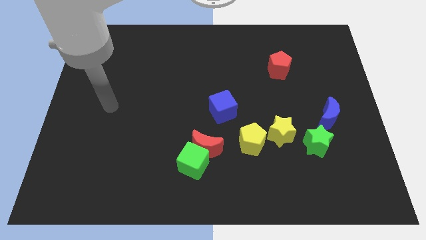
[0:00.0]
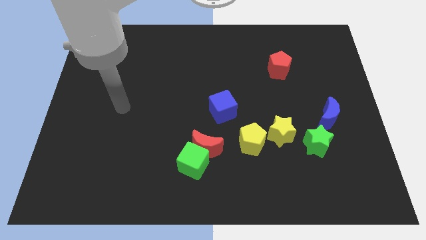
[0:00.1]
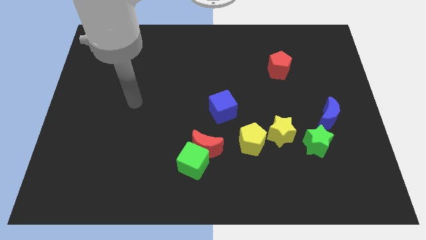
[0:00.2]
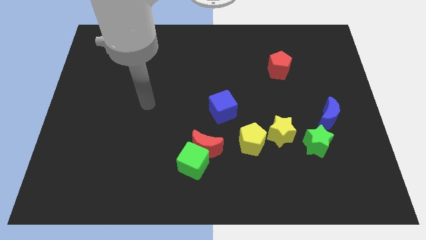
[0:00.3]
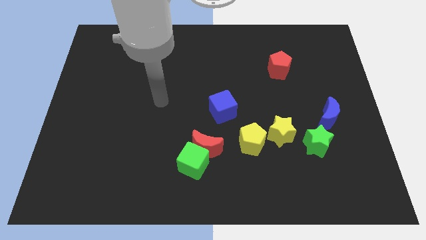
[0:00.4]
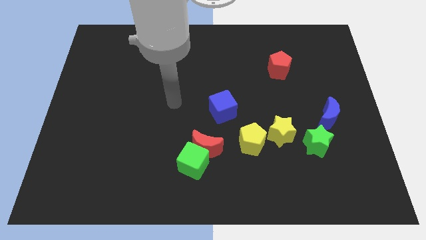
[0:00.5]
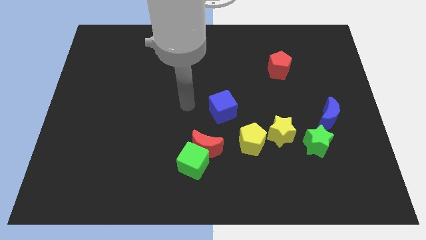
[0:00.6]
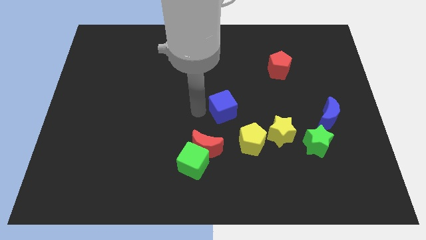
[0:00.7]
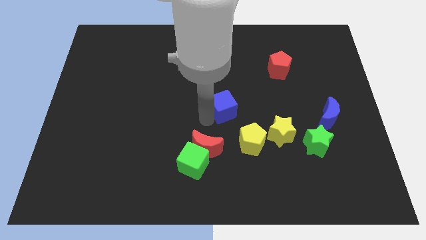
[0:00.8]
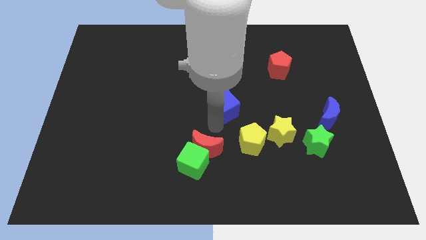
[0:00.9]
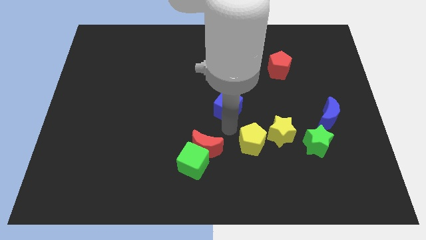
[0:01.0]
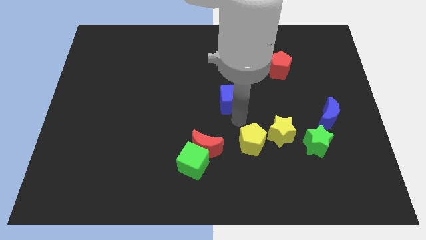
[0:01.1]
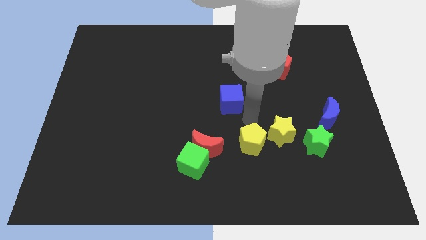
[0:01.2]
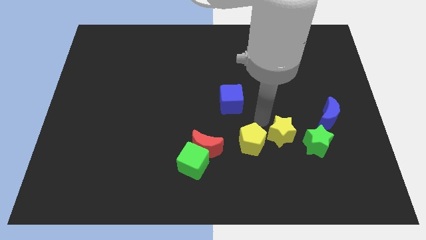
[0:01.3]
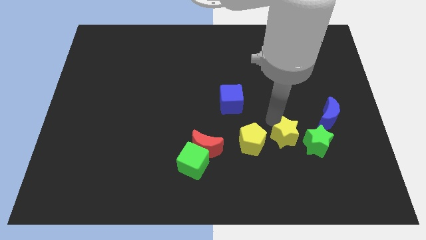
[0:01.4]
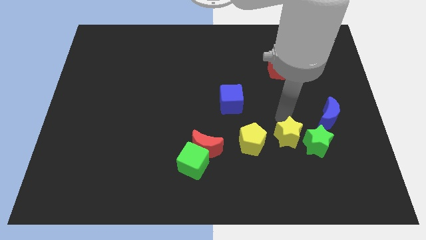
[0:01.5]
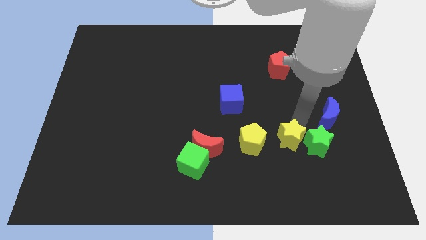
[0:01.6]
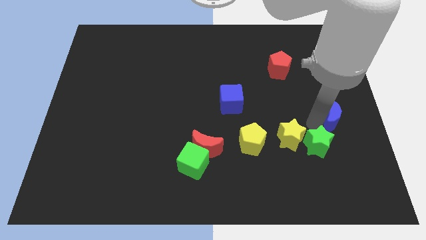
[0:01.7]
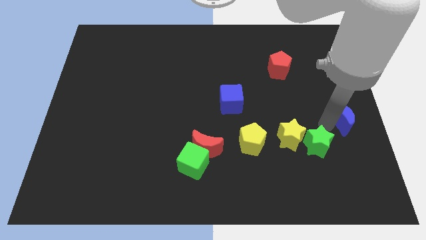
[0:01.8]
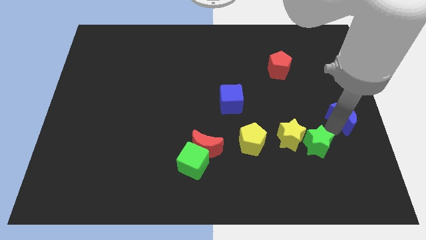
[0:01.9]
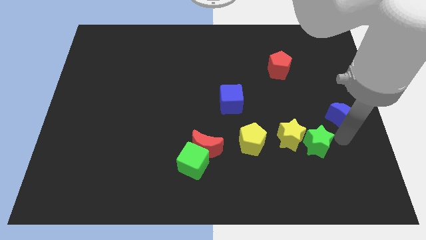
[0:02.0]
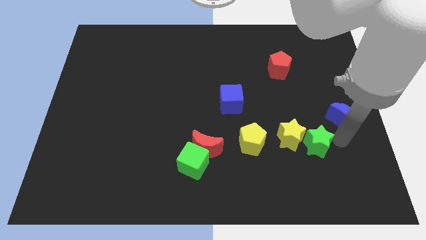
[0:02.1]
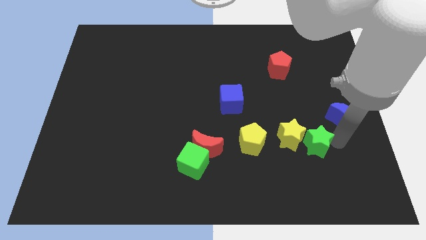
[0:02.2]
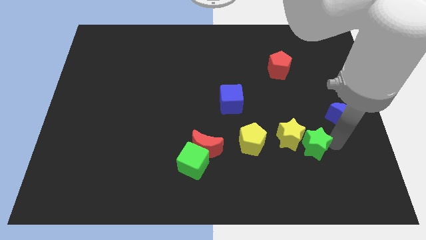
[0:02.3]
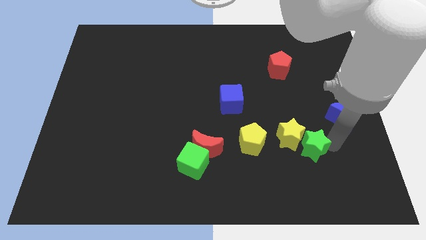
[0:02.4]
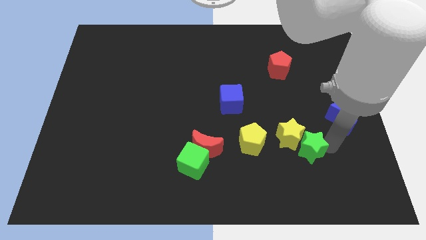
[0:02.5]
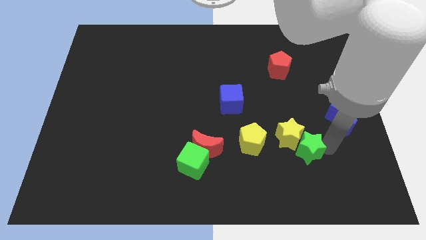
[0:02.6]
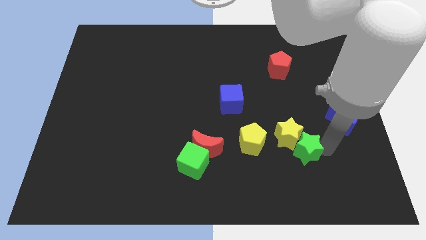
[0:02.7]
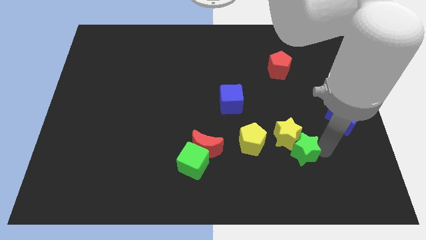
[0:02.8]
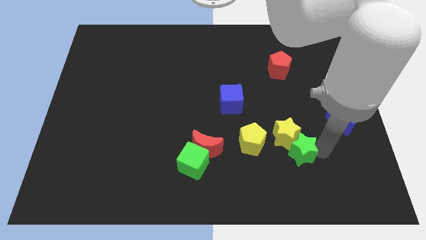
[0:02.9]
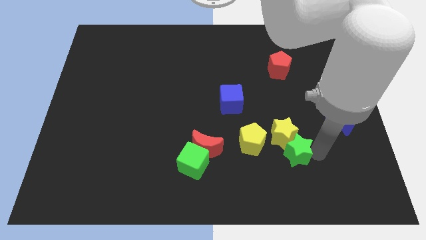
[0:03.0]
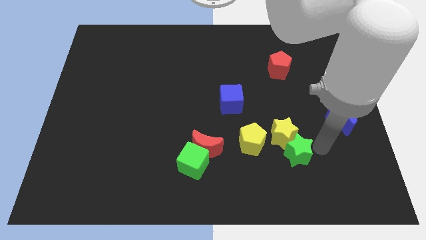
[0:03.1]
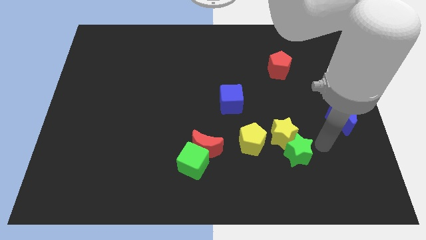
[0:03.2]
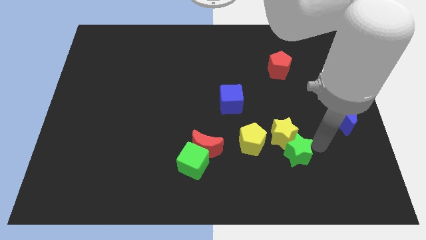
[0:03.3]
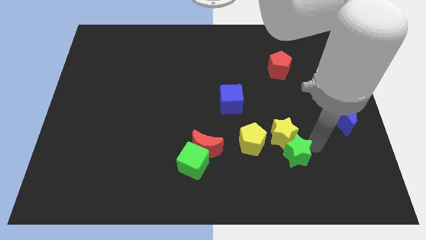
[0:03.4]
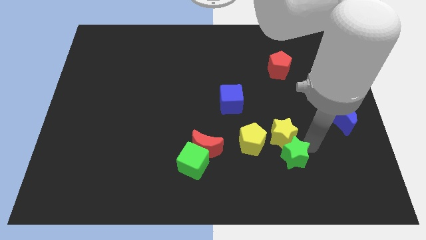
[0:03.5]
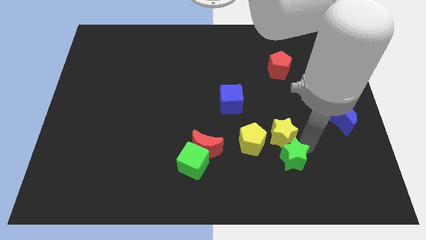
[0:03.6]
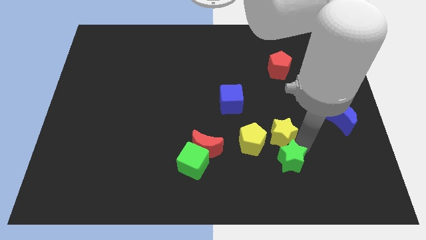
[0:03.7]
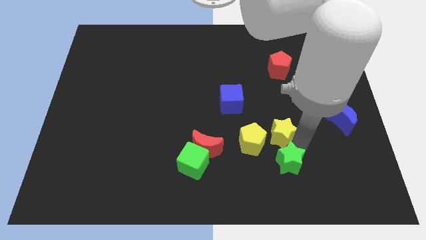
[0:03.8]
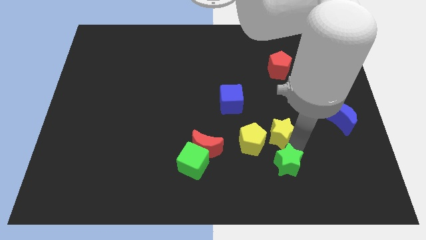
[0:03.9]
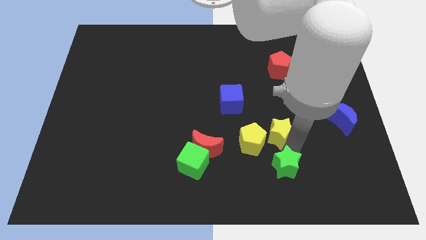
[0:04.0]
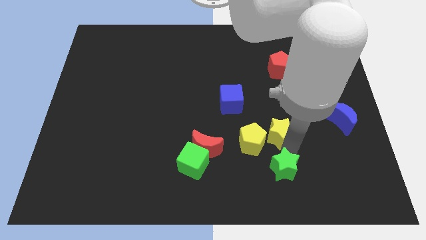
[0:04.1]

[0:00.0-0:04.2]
move the green star left somewhat

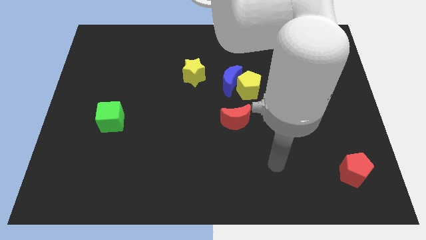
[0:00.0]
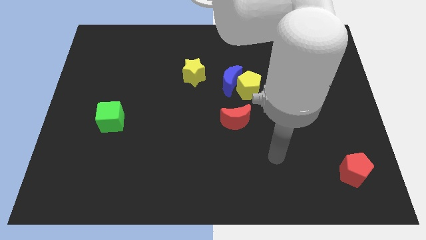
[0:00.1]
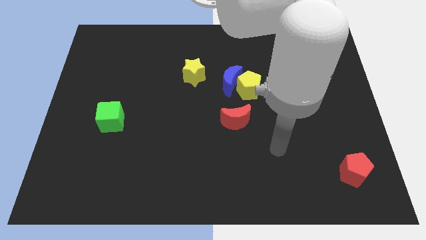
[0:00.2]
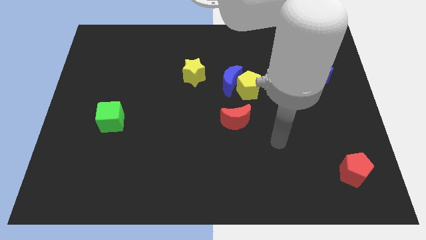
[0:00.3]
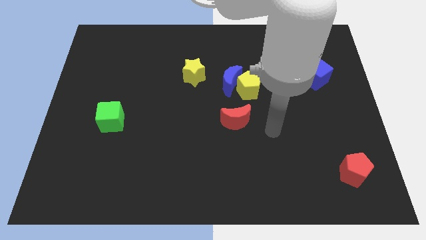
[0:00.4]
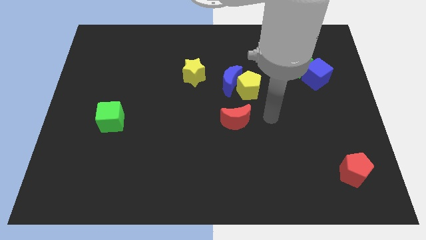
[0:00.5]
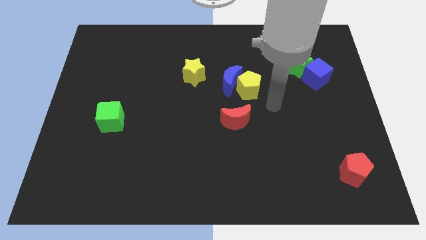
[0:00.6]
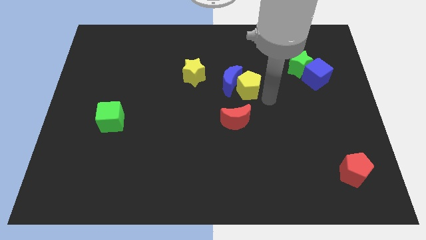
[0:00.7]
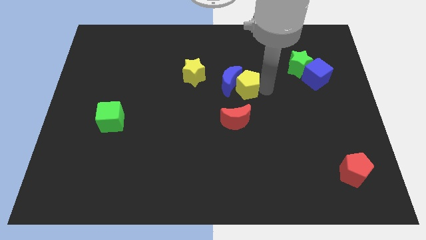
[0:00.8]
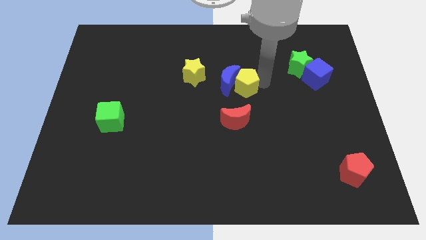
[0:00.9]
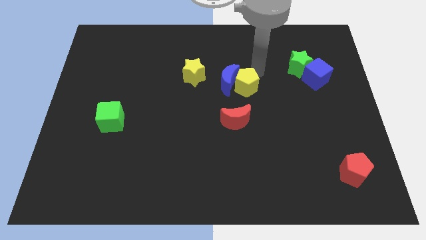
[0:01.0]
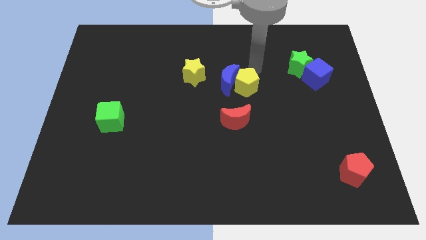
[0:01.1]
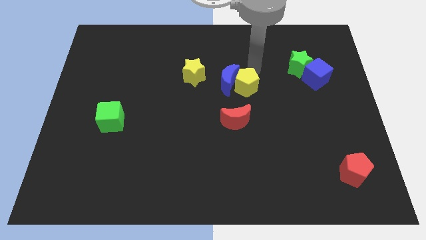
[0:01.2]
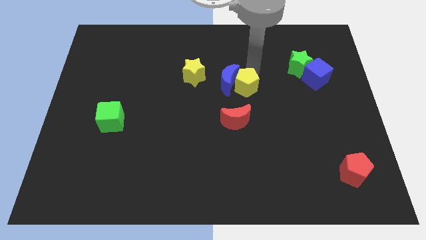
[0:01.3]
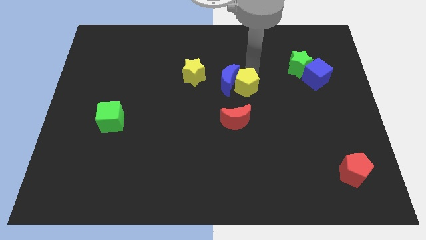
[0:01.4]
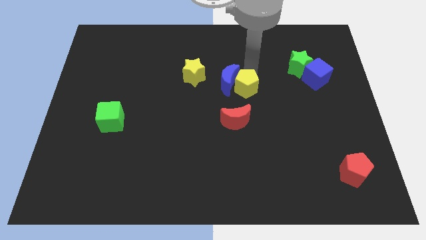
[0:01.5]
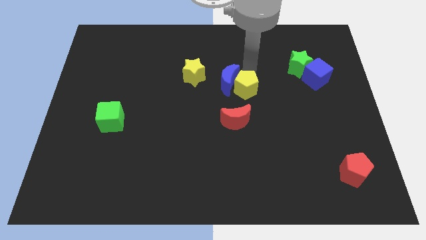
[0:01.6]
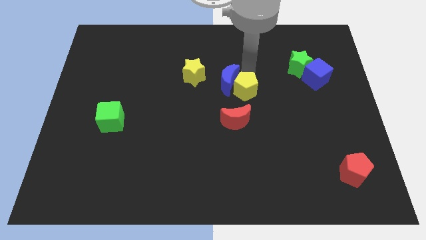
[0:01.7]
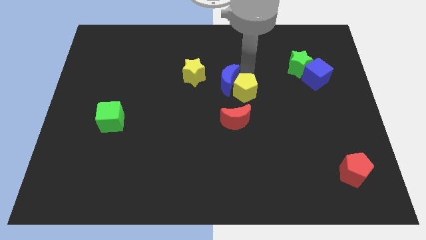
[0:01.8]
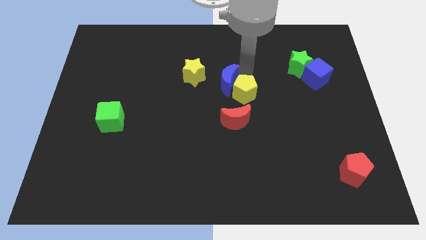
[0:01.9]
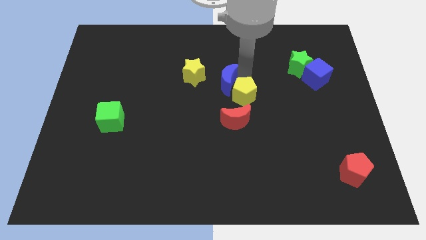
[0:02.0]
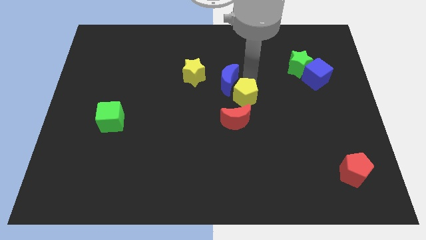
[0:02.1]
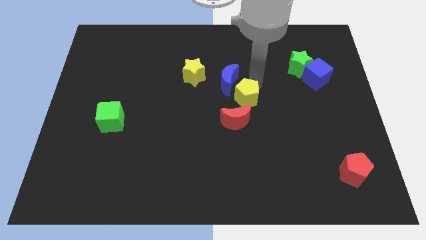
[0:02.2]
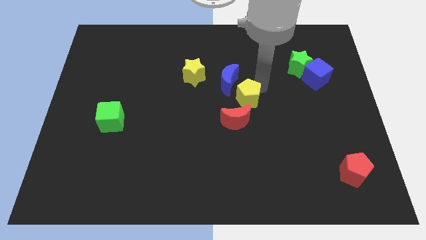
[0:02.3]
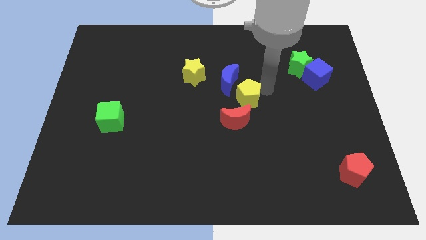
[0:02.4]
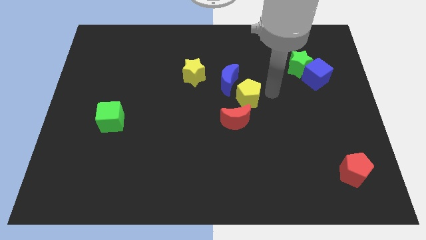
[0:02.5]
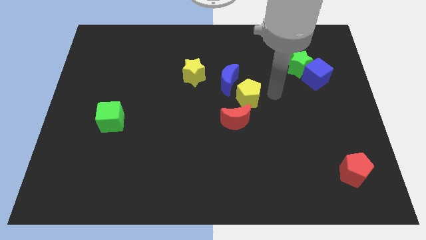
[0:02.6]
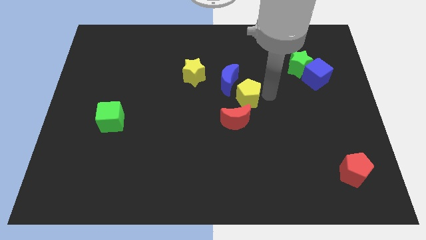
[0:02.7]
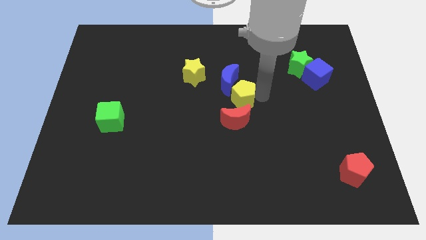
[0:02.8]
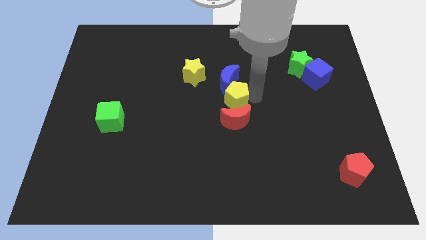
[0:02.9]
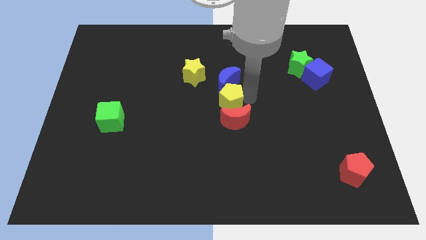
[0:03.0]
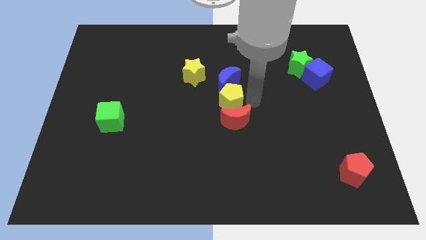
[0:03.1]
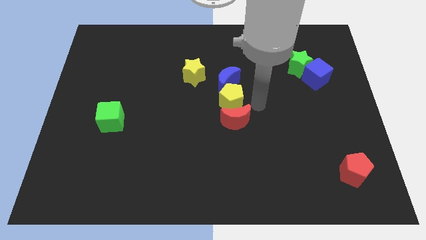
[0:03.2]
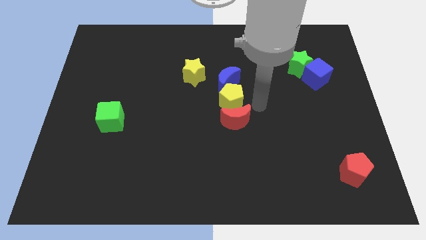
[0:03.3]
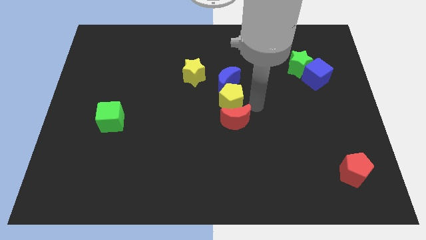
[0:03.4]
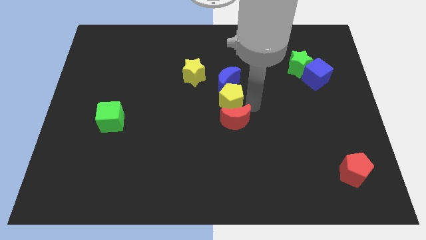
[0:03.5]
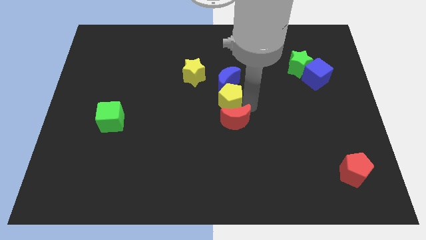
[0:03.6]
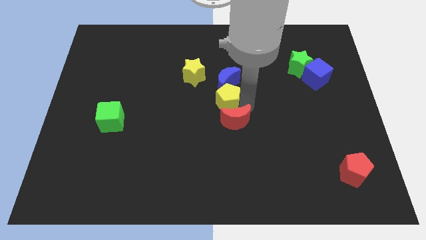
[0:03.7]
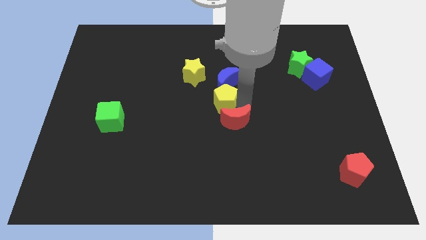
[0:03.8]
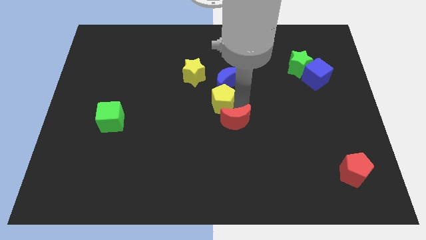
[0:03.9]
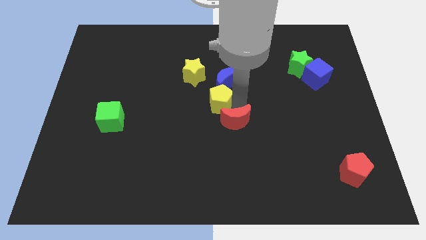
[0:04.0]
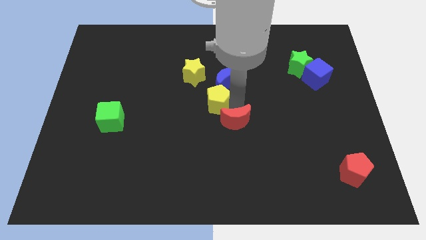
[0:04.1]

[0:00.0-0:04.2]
slightly move the yellow pentagon to the left
